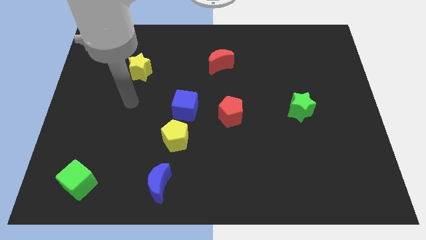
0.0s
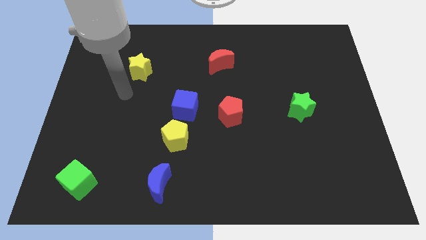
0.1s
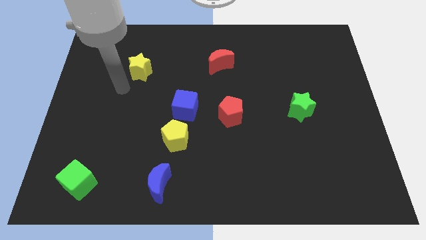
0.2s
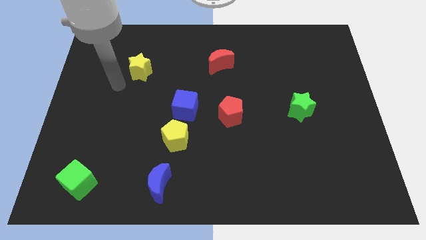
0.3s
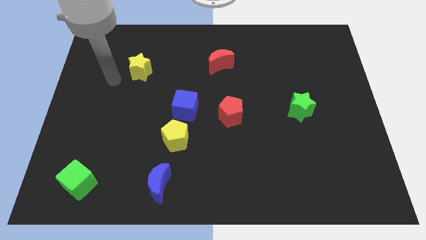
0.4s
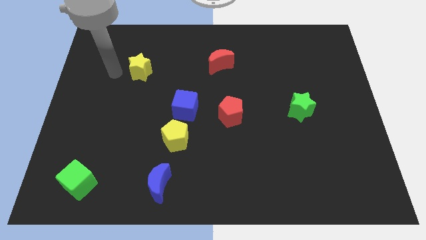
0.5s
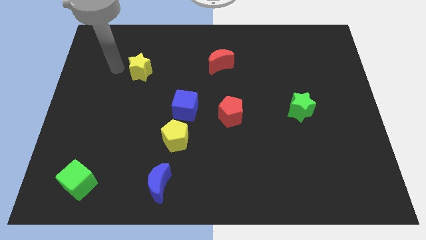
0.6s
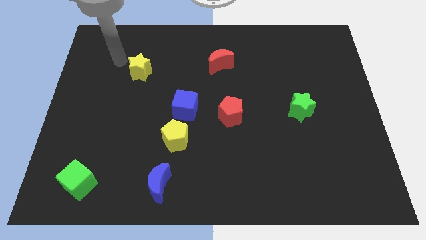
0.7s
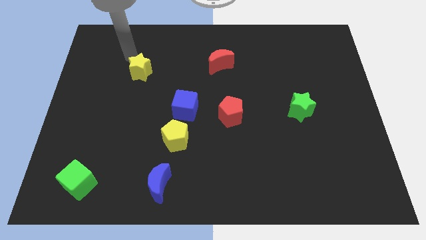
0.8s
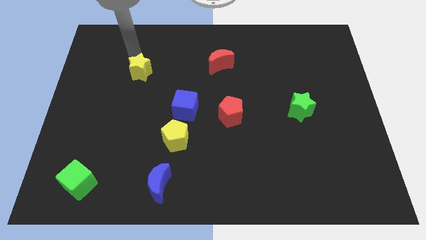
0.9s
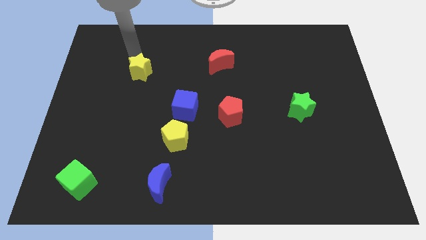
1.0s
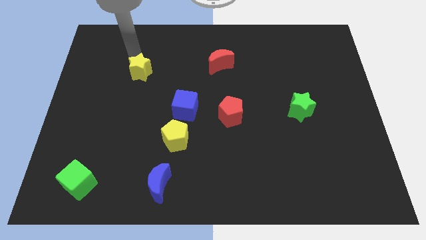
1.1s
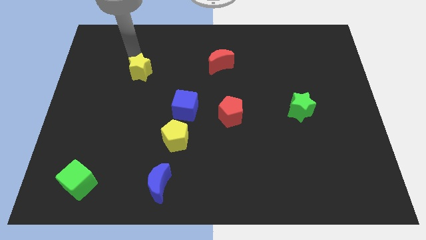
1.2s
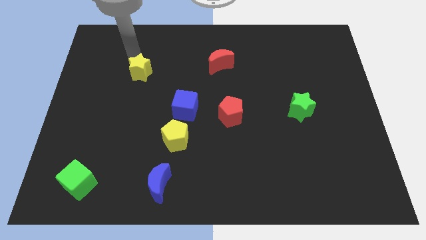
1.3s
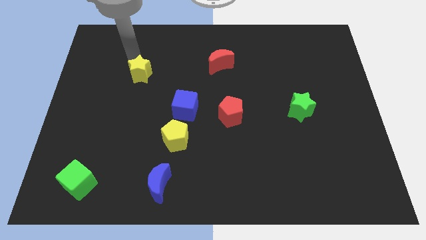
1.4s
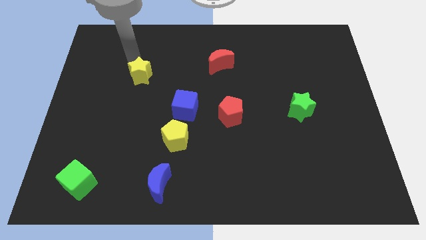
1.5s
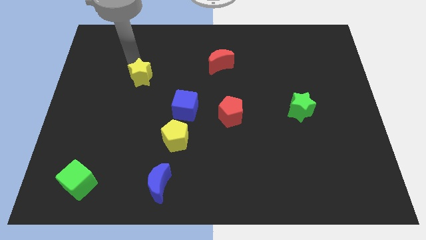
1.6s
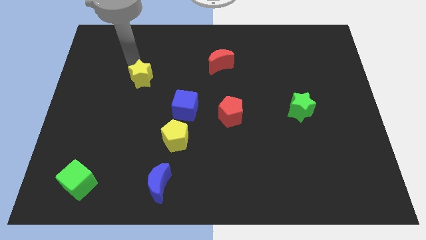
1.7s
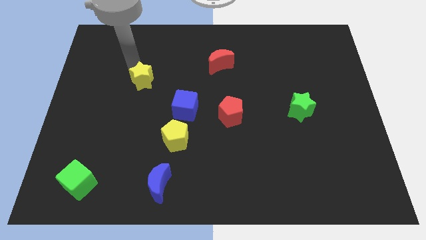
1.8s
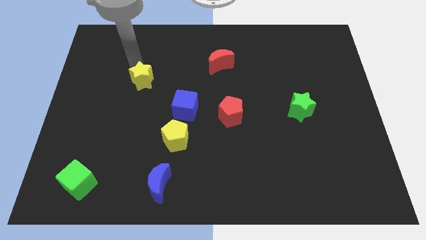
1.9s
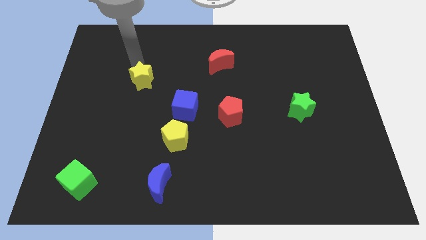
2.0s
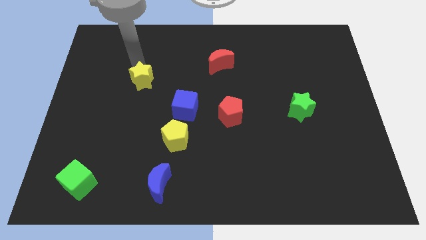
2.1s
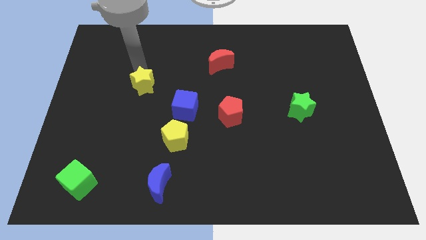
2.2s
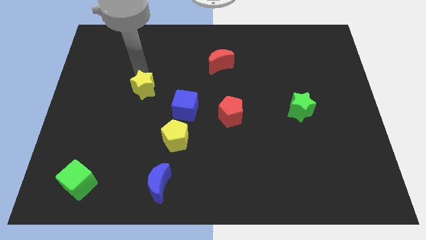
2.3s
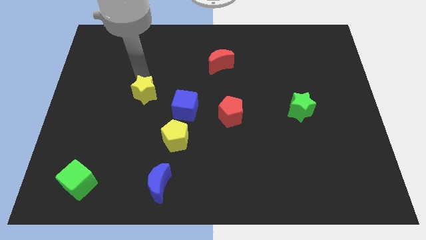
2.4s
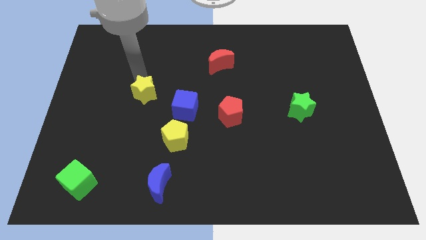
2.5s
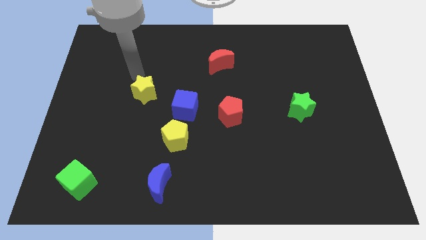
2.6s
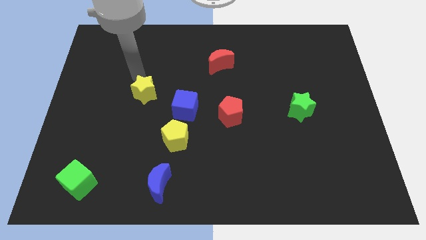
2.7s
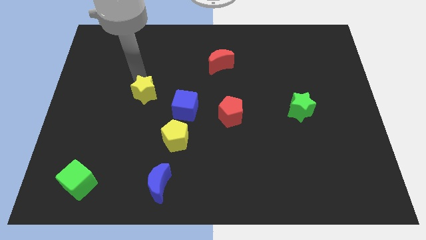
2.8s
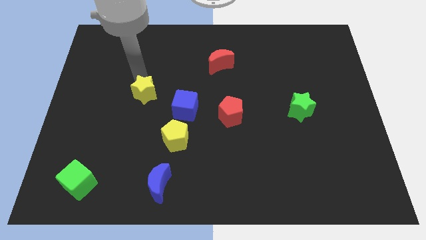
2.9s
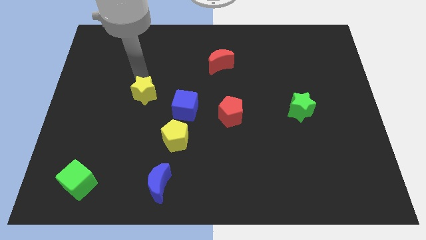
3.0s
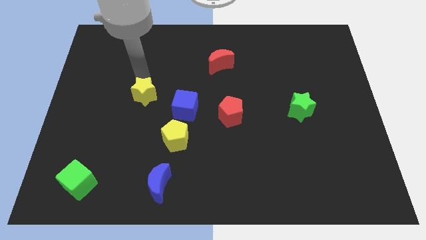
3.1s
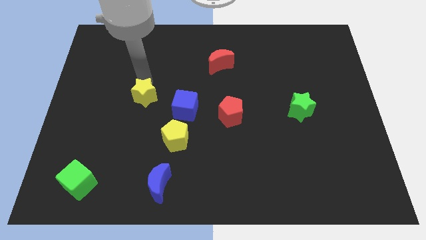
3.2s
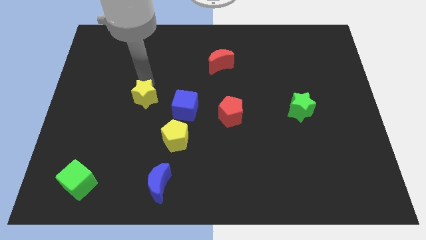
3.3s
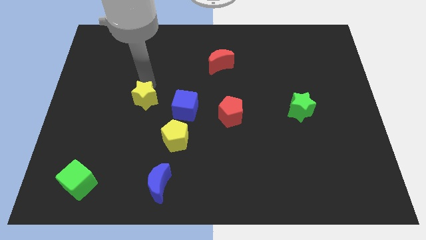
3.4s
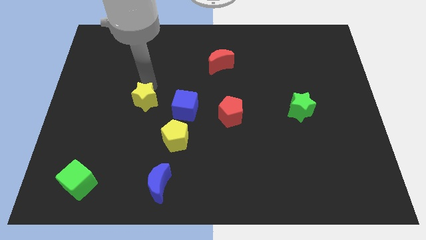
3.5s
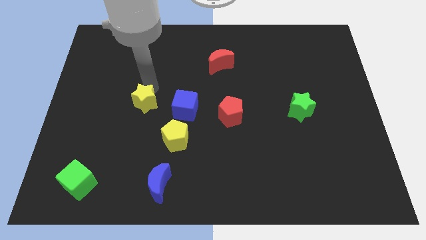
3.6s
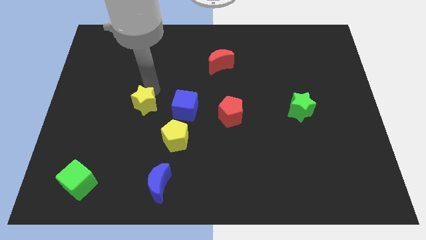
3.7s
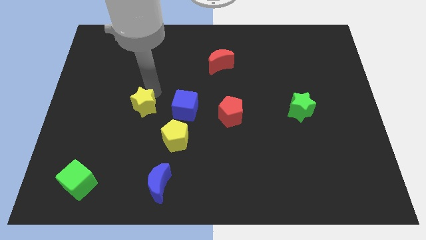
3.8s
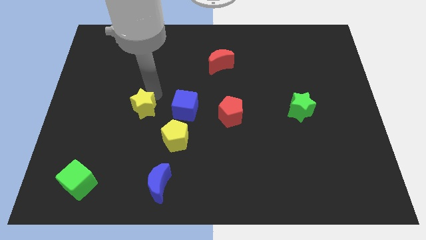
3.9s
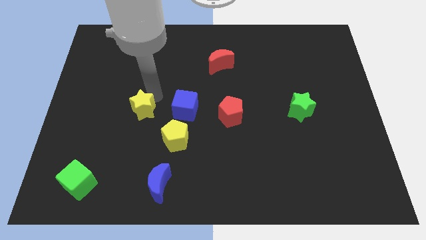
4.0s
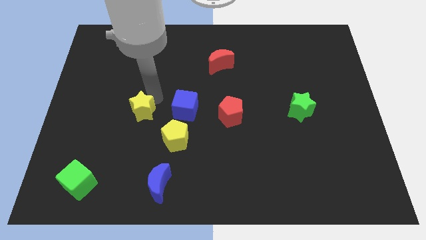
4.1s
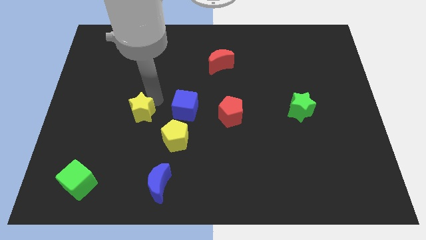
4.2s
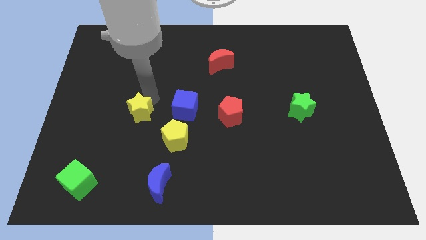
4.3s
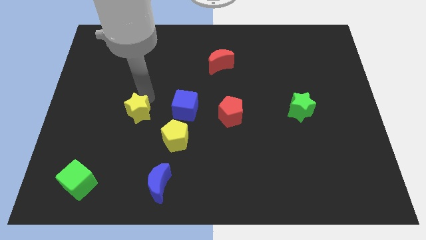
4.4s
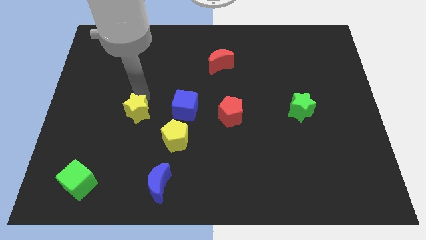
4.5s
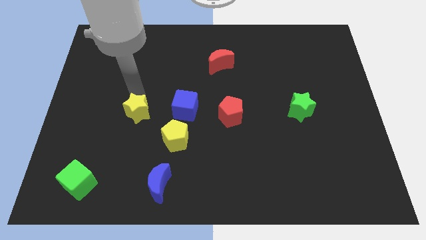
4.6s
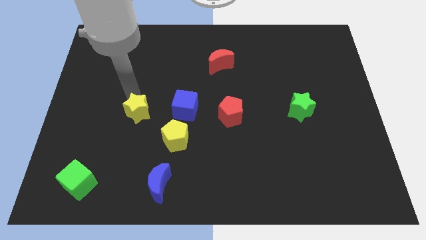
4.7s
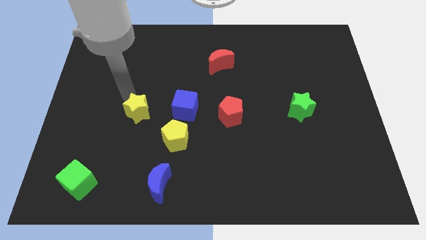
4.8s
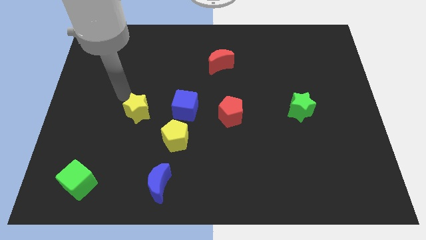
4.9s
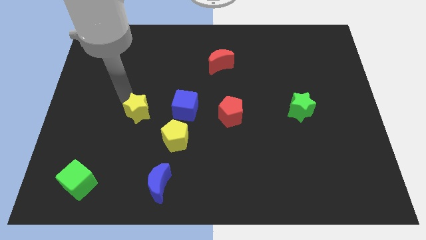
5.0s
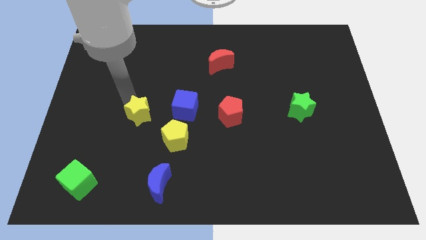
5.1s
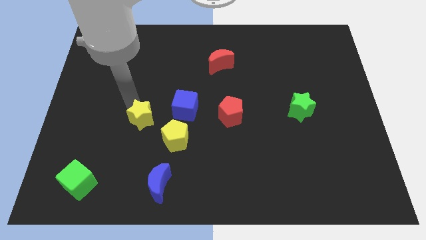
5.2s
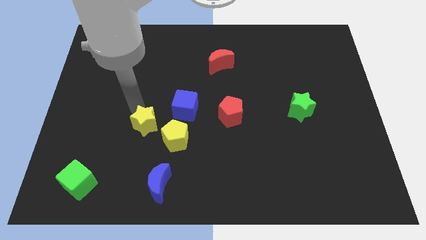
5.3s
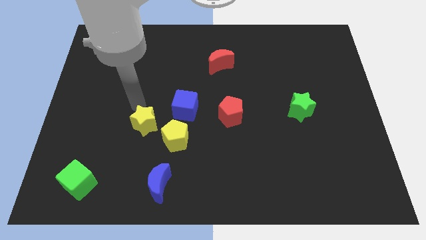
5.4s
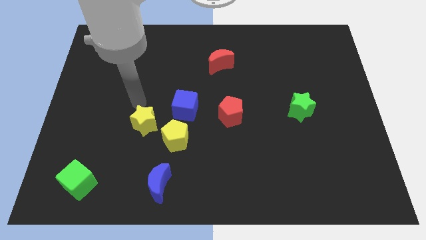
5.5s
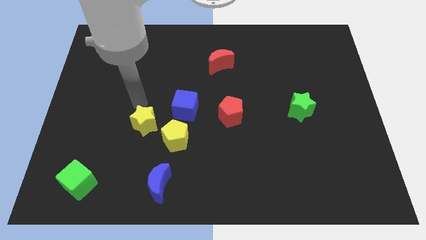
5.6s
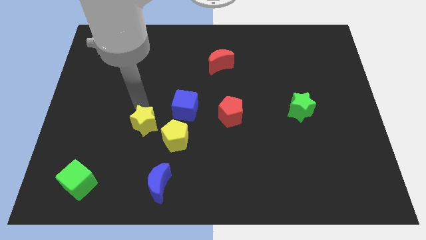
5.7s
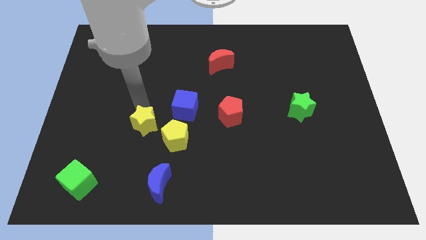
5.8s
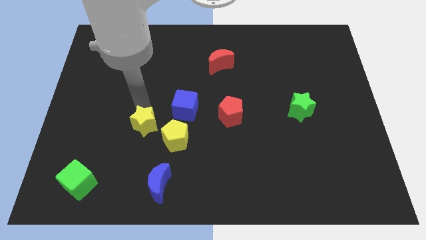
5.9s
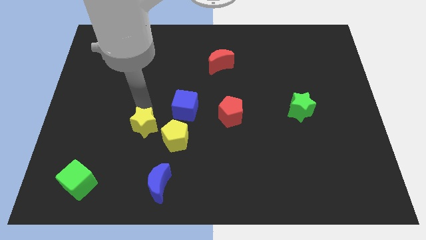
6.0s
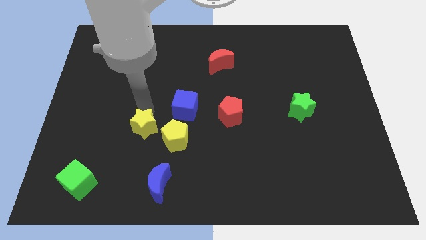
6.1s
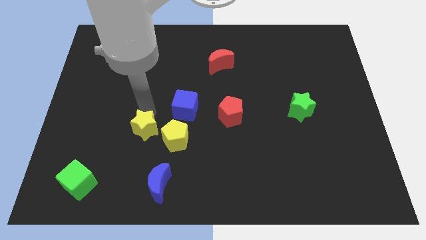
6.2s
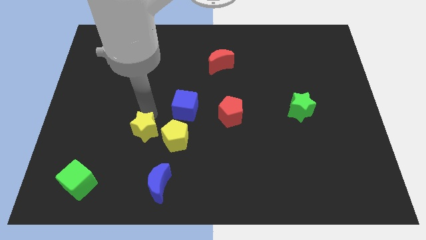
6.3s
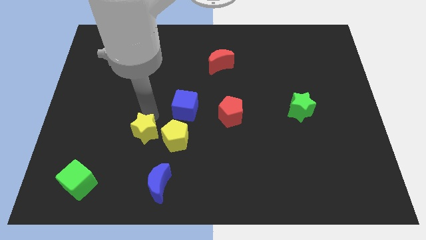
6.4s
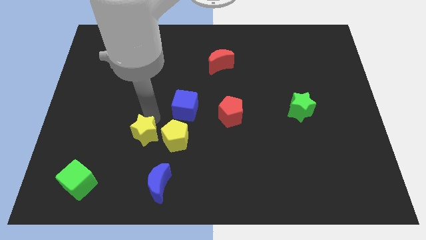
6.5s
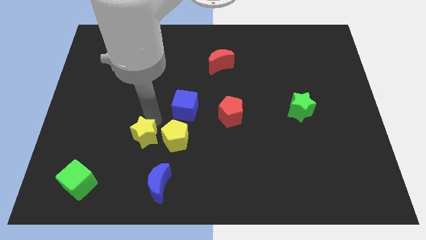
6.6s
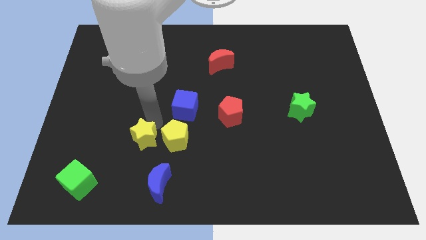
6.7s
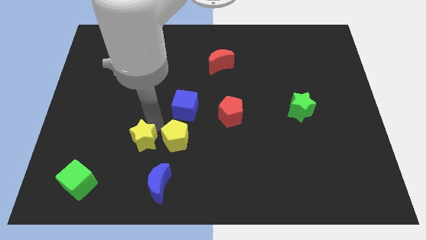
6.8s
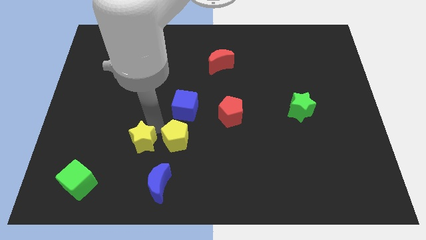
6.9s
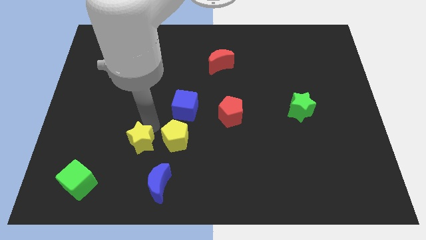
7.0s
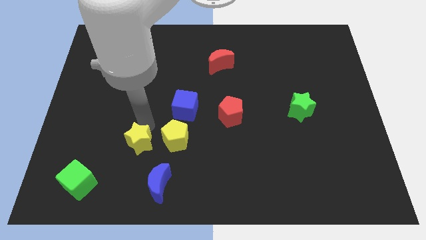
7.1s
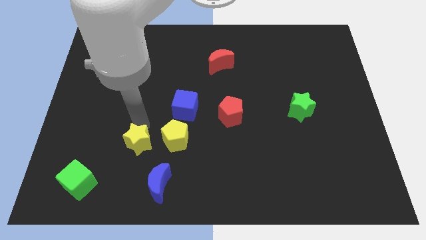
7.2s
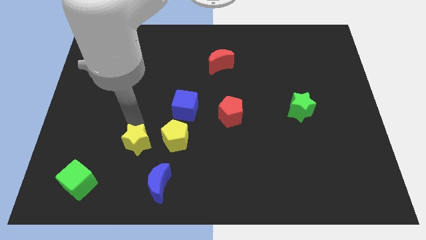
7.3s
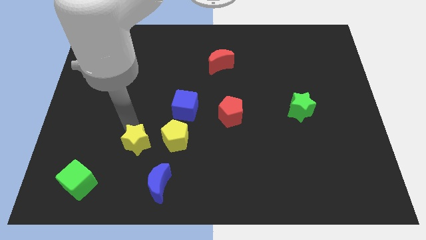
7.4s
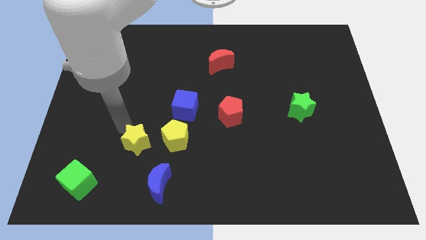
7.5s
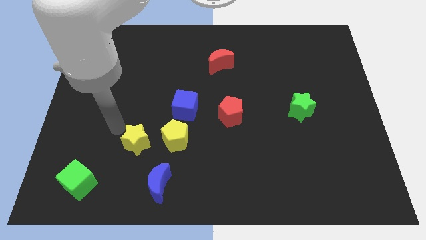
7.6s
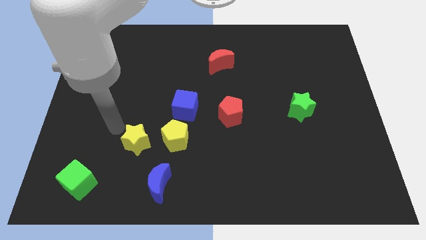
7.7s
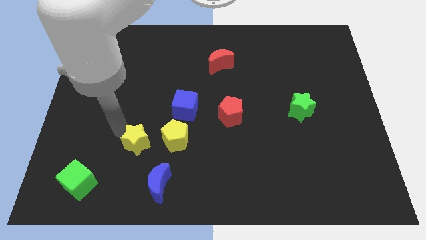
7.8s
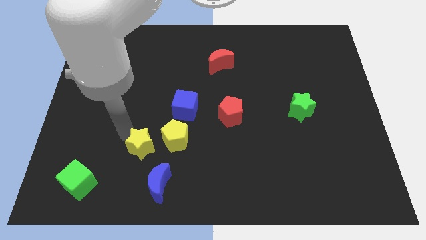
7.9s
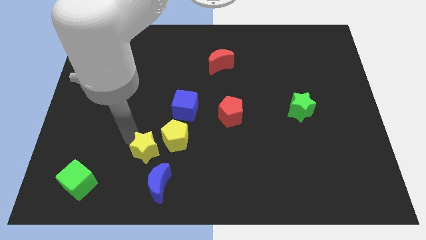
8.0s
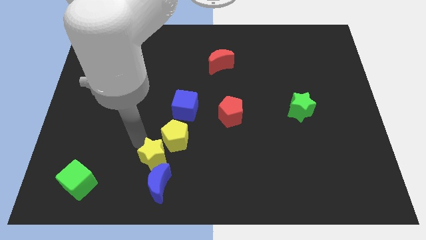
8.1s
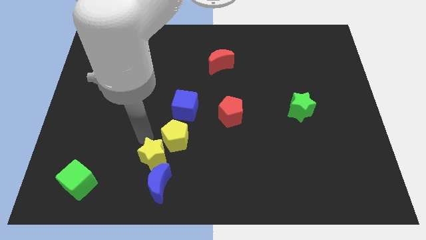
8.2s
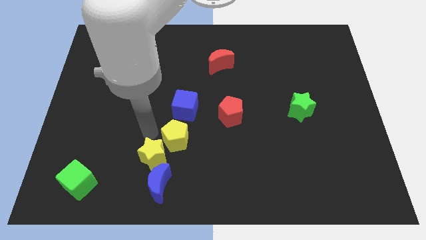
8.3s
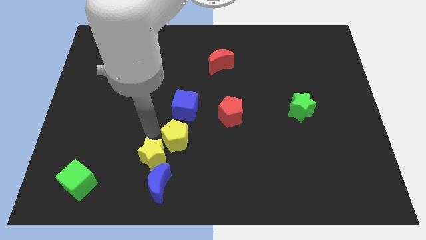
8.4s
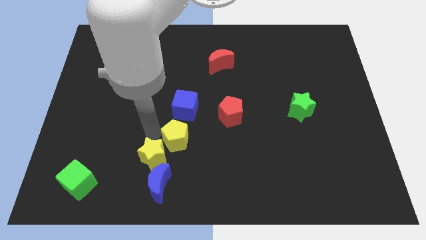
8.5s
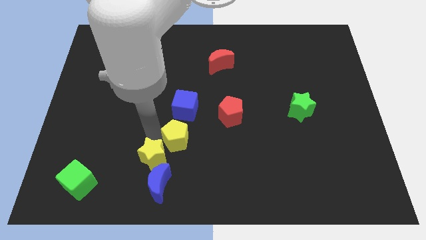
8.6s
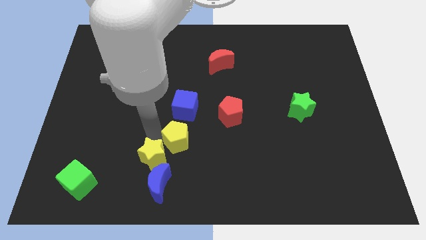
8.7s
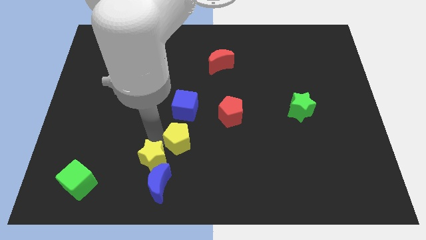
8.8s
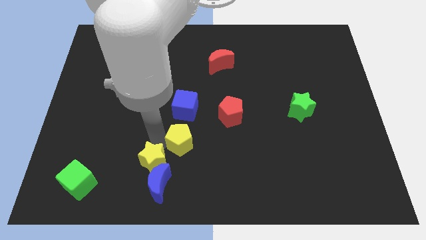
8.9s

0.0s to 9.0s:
push the yellow star to the blue moon
